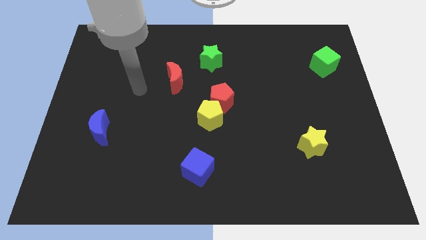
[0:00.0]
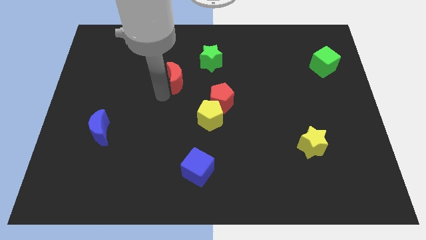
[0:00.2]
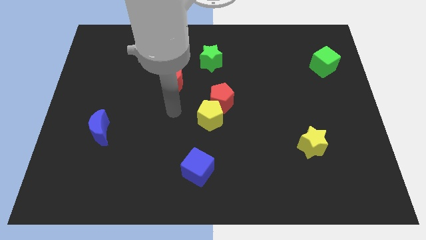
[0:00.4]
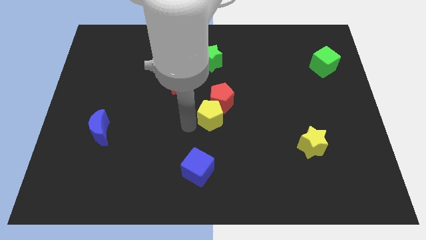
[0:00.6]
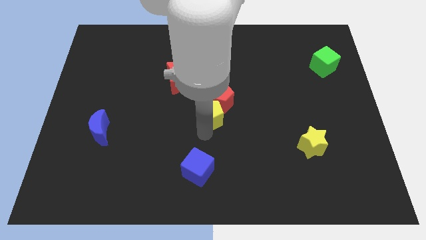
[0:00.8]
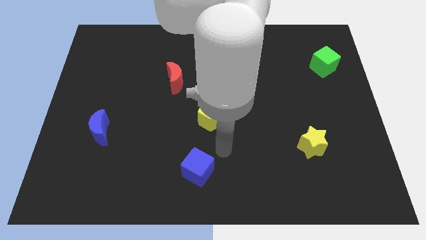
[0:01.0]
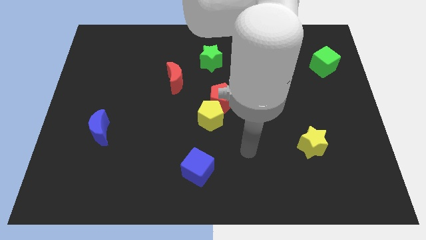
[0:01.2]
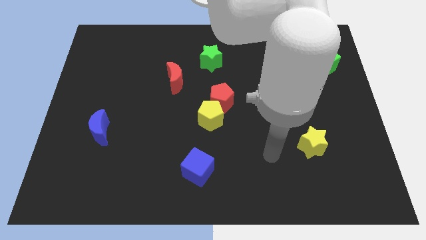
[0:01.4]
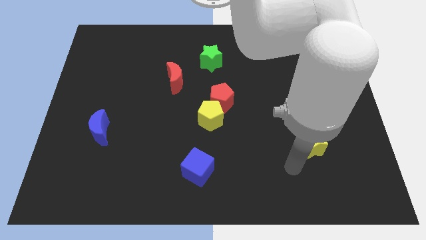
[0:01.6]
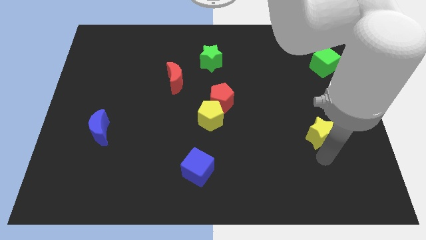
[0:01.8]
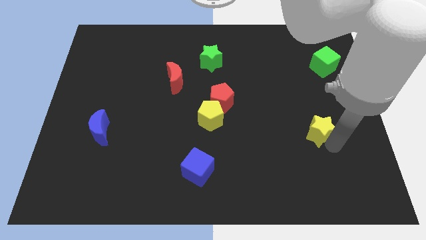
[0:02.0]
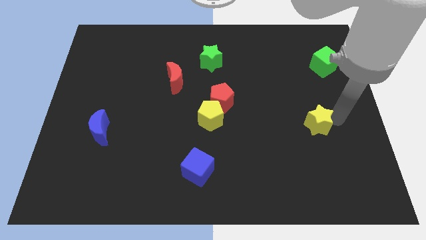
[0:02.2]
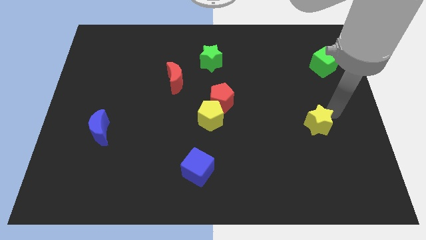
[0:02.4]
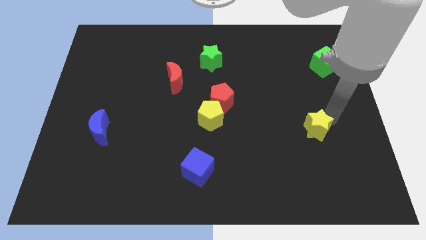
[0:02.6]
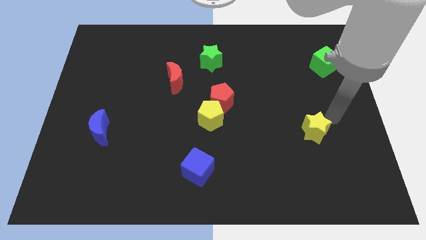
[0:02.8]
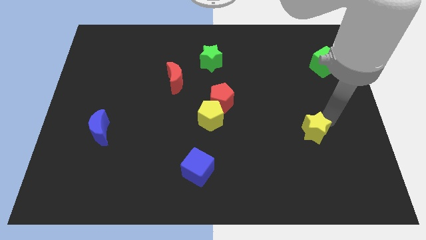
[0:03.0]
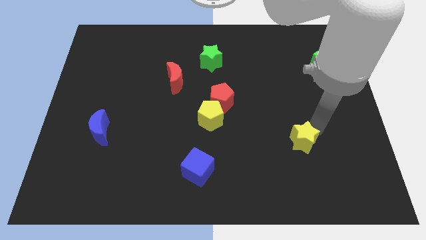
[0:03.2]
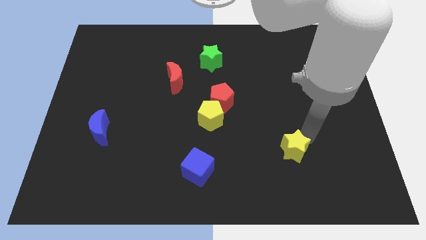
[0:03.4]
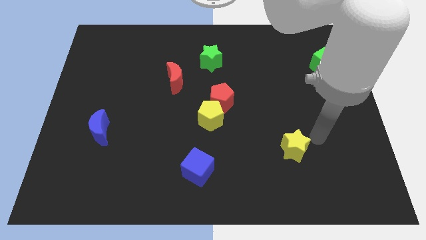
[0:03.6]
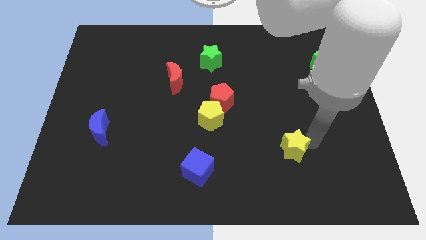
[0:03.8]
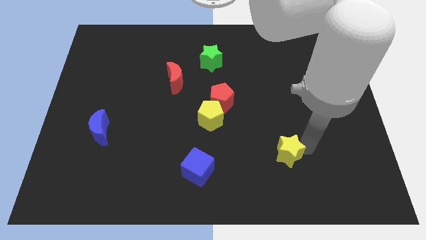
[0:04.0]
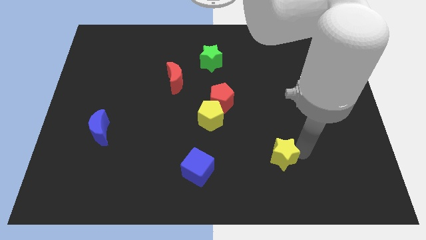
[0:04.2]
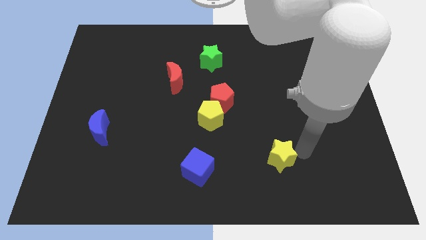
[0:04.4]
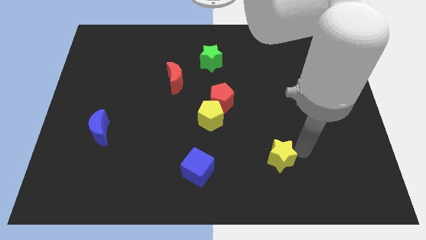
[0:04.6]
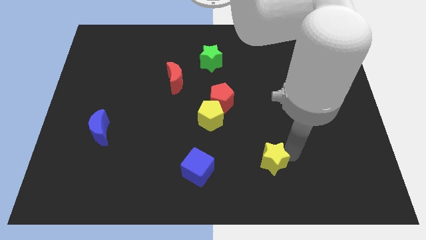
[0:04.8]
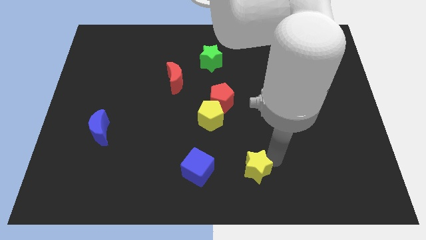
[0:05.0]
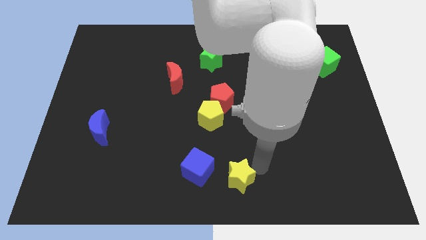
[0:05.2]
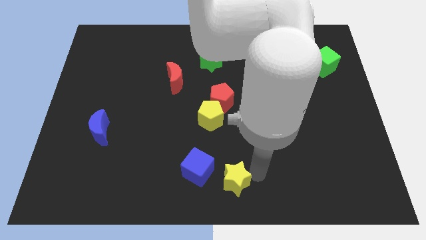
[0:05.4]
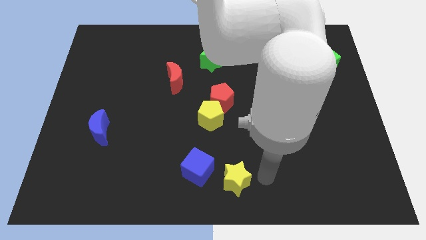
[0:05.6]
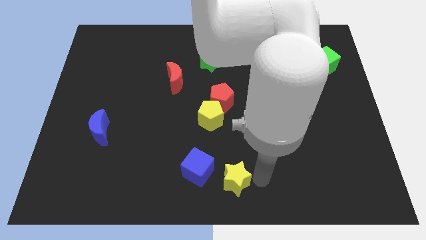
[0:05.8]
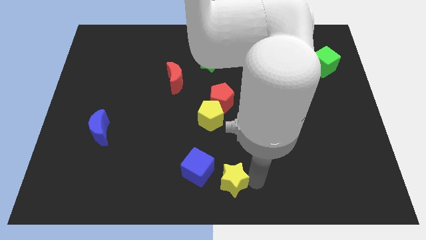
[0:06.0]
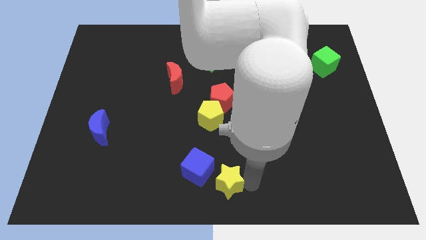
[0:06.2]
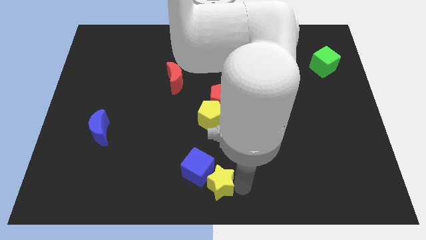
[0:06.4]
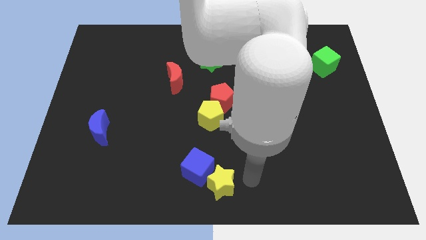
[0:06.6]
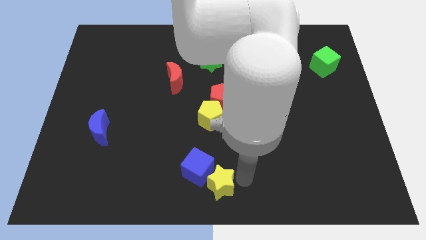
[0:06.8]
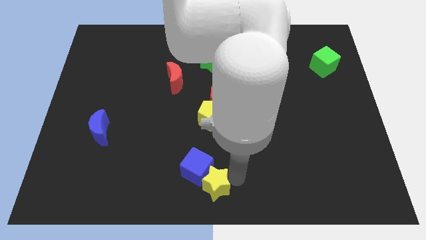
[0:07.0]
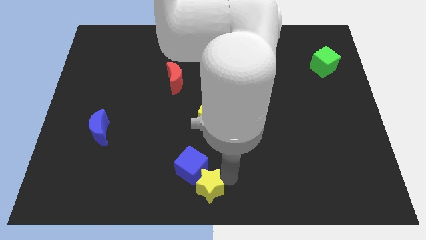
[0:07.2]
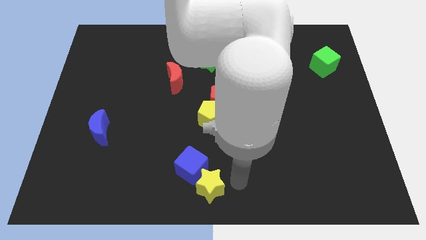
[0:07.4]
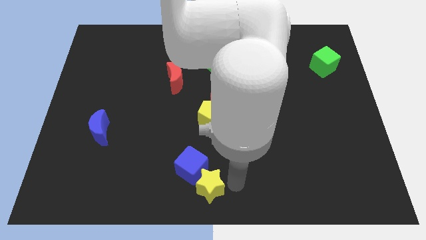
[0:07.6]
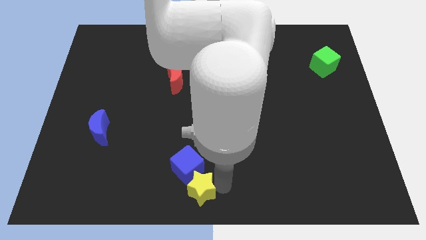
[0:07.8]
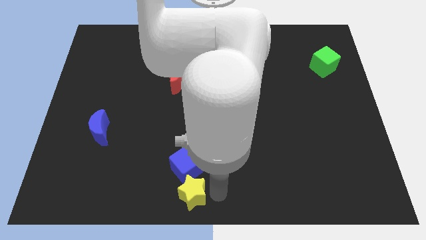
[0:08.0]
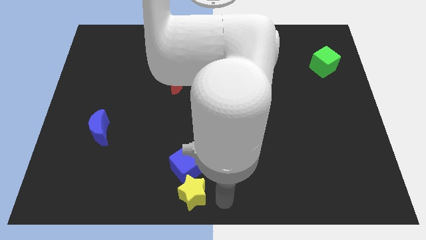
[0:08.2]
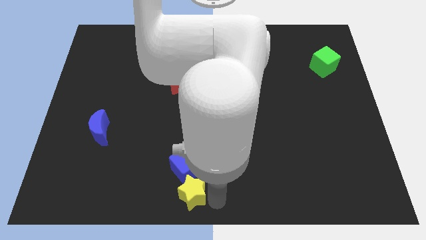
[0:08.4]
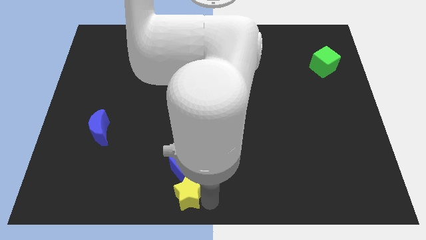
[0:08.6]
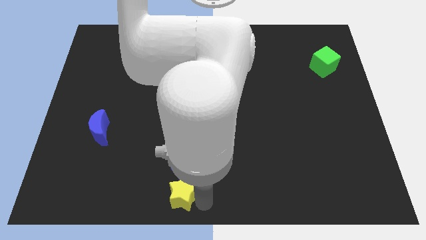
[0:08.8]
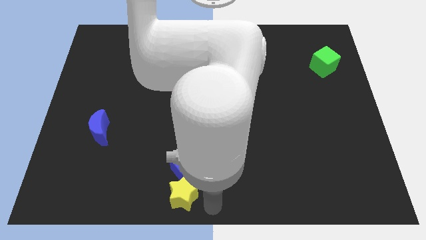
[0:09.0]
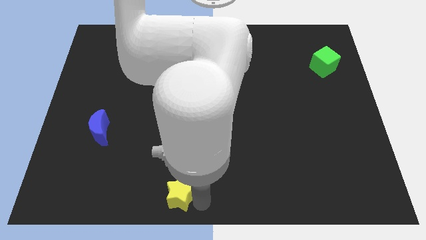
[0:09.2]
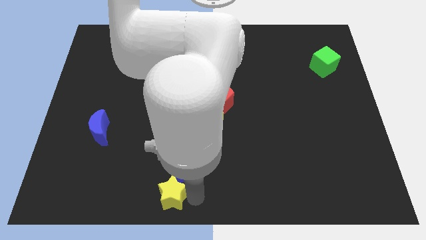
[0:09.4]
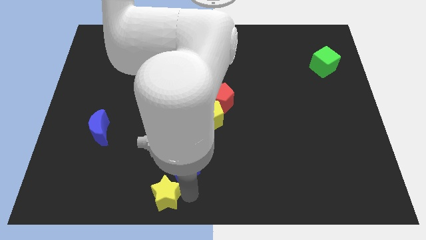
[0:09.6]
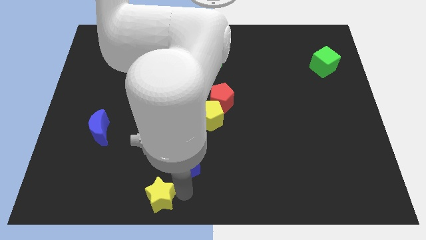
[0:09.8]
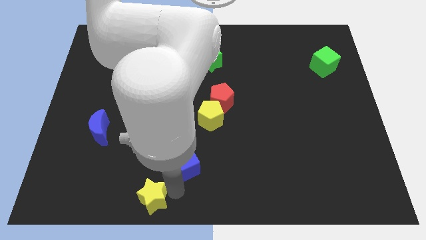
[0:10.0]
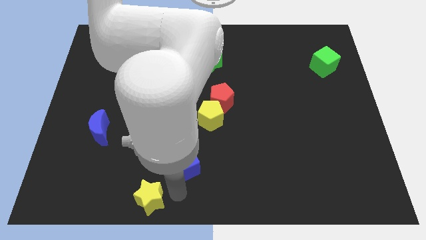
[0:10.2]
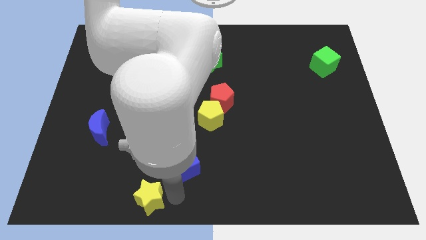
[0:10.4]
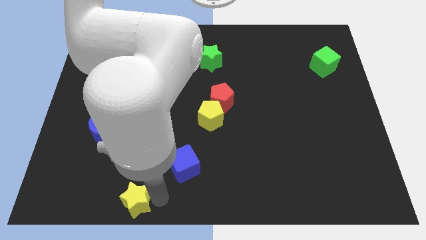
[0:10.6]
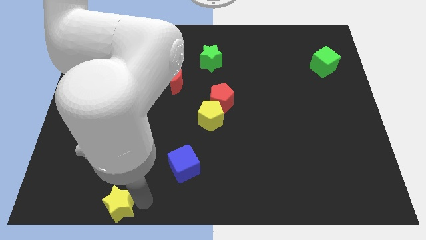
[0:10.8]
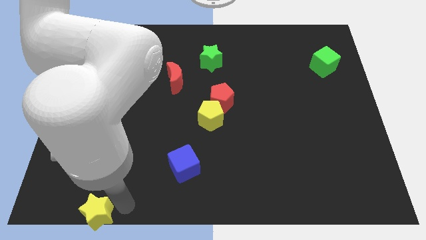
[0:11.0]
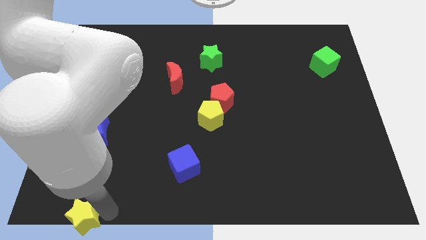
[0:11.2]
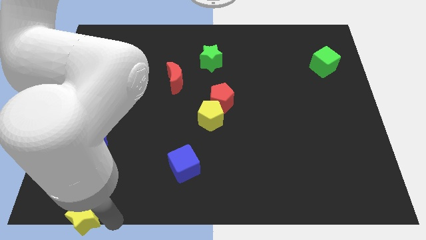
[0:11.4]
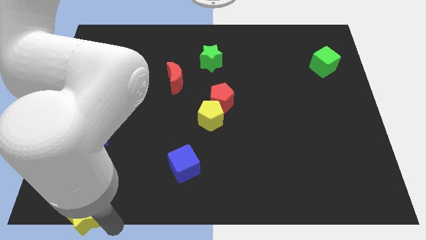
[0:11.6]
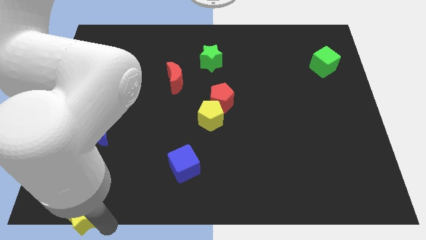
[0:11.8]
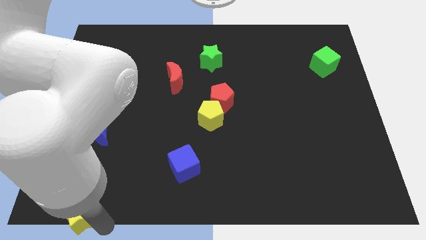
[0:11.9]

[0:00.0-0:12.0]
move the yellow star to the bottom left corner

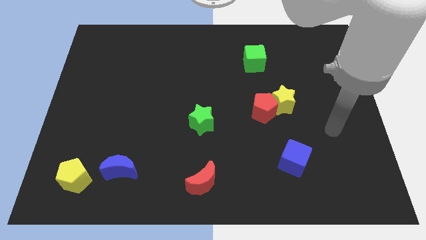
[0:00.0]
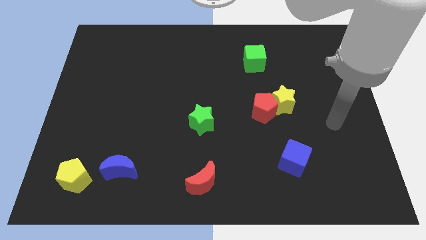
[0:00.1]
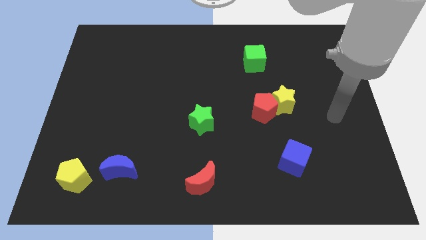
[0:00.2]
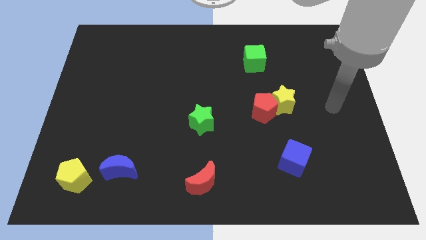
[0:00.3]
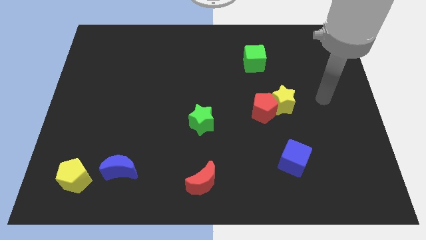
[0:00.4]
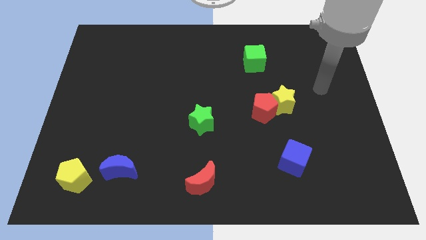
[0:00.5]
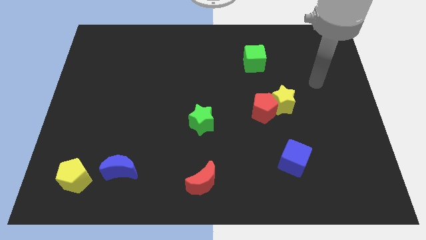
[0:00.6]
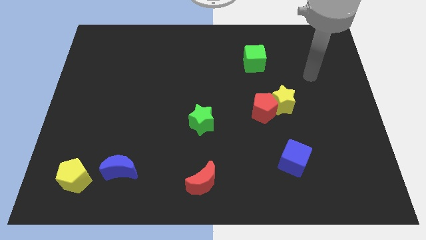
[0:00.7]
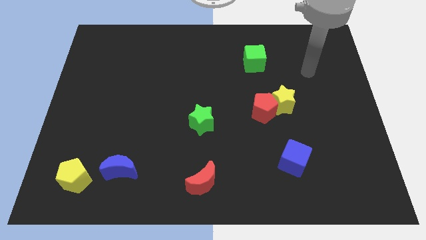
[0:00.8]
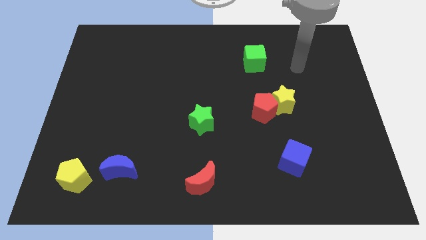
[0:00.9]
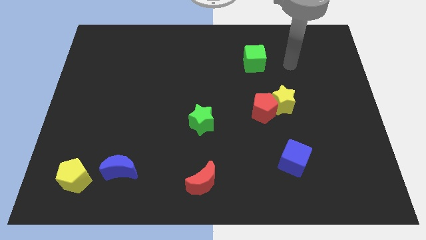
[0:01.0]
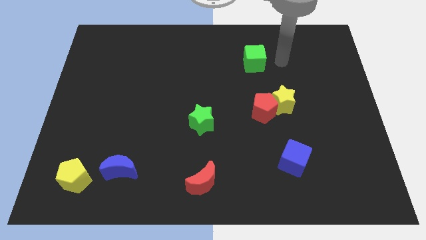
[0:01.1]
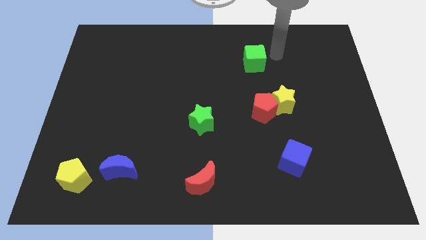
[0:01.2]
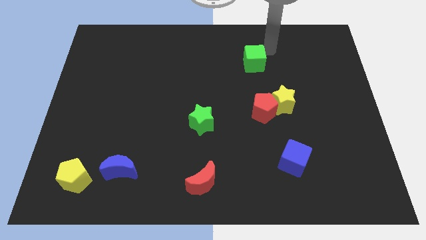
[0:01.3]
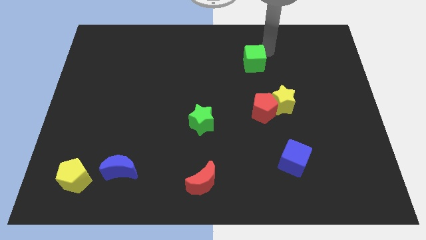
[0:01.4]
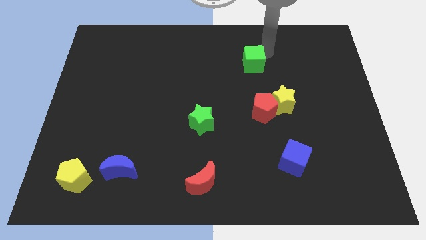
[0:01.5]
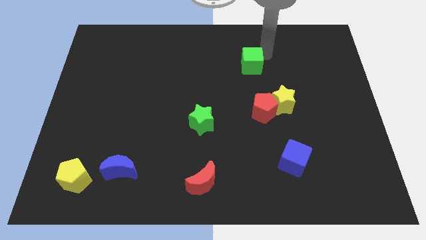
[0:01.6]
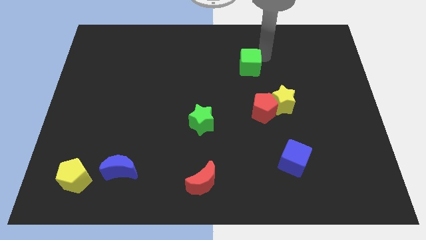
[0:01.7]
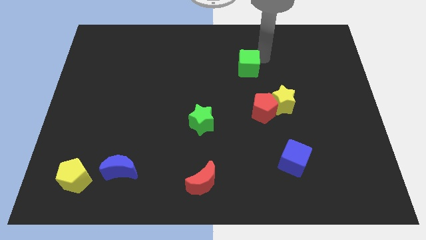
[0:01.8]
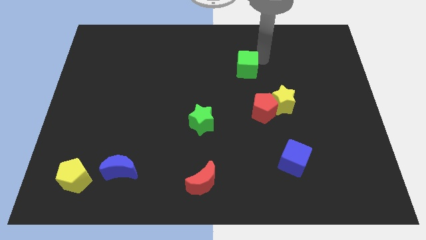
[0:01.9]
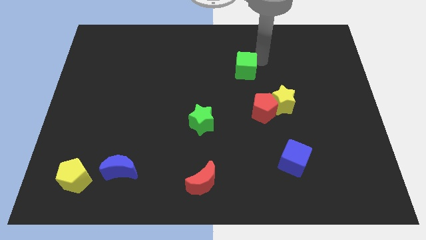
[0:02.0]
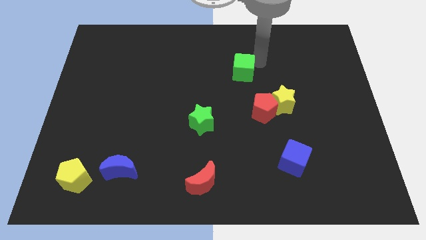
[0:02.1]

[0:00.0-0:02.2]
put the green cube to the middle of the board
